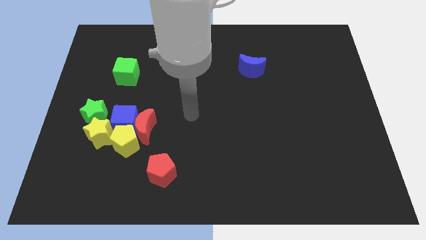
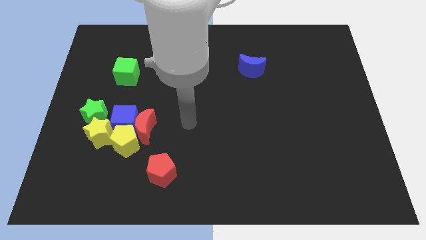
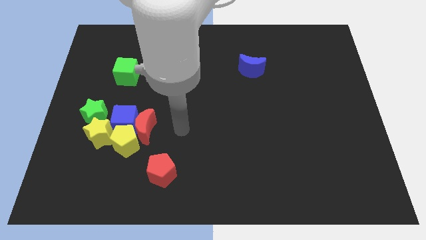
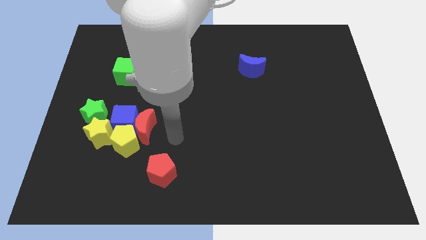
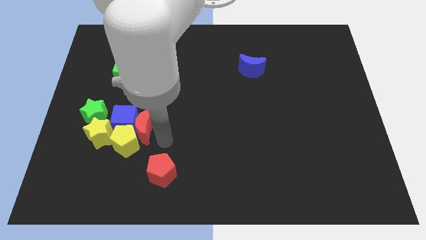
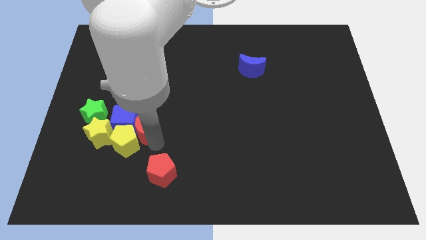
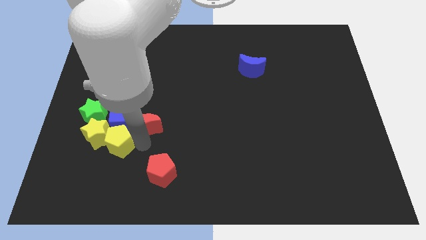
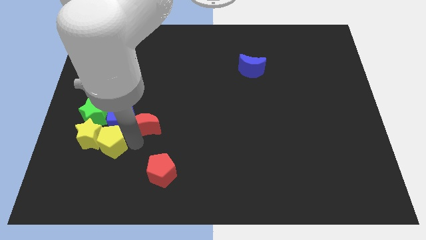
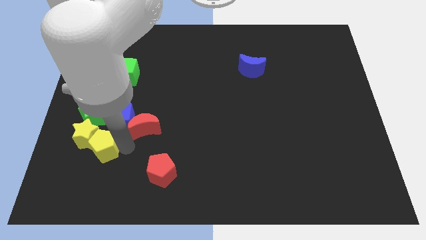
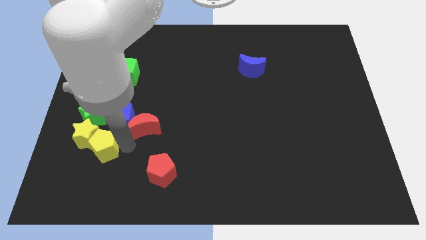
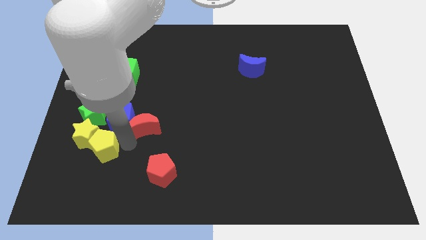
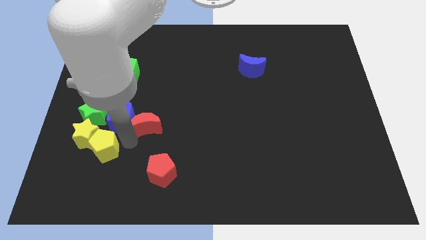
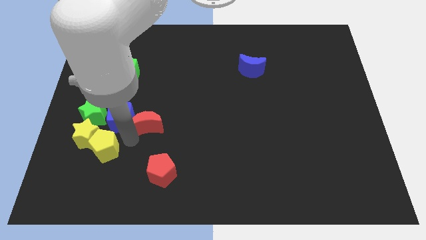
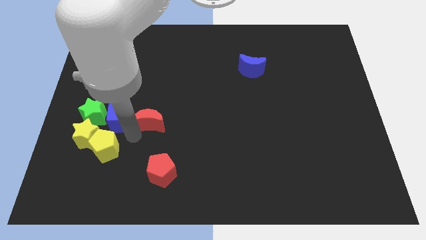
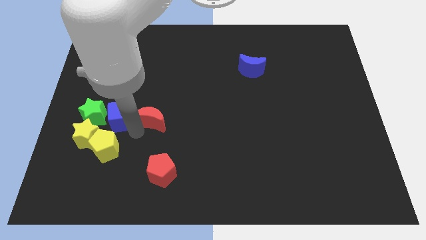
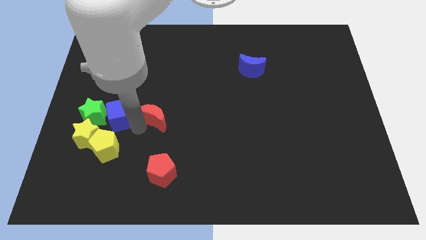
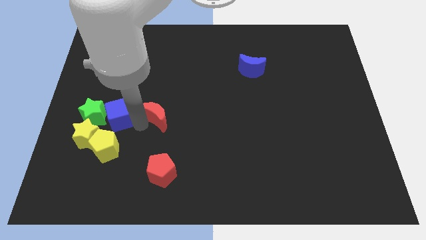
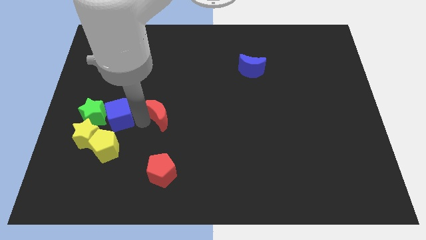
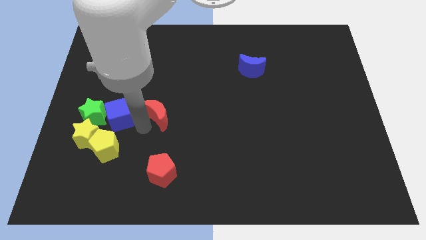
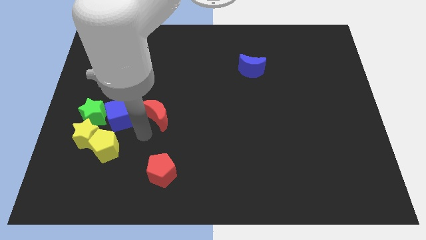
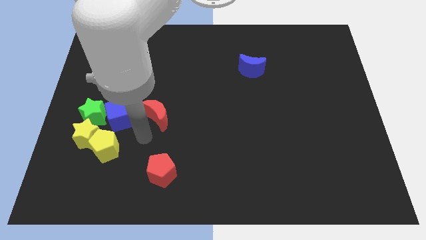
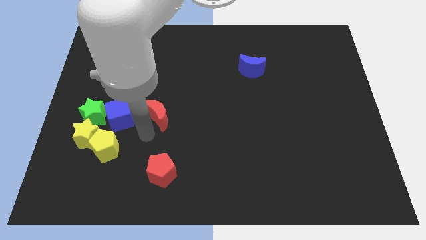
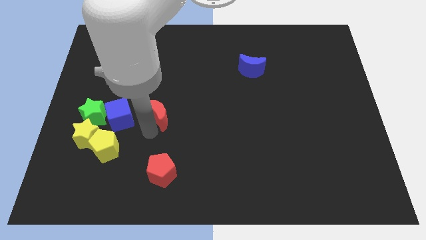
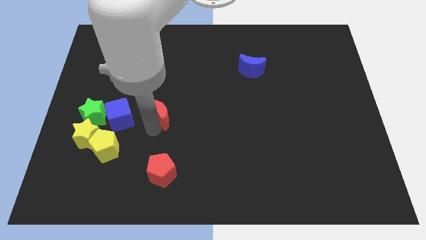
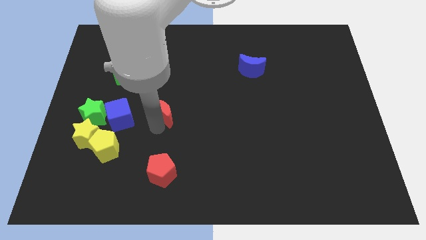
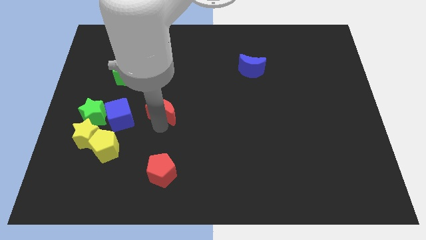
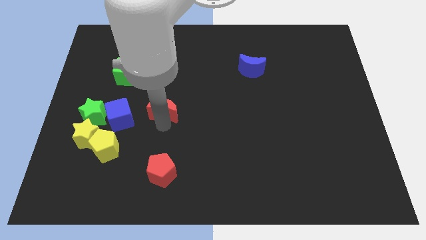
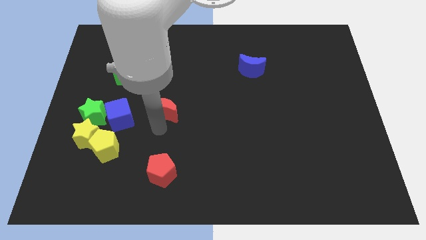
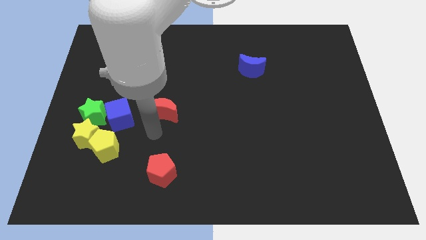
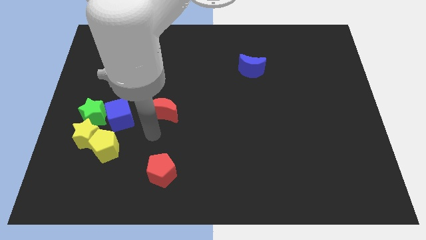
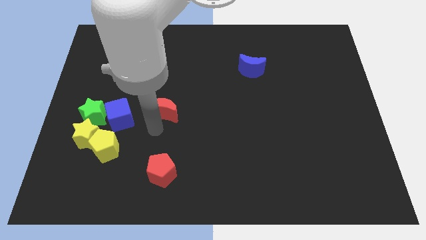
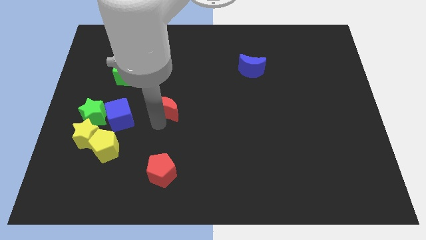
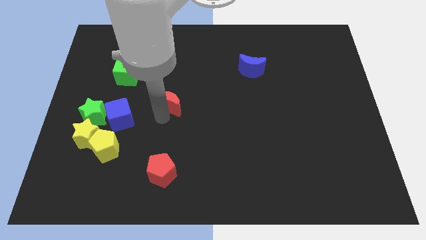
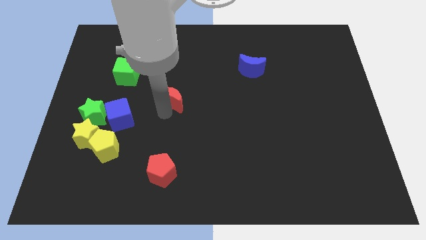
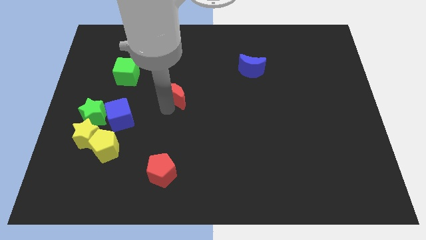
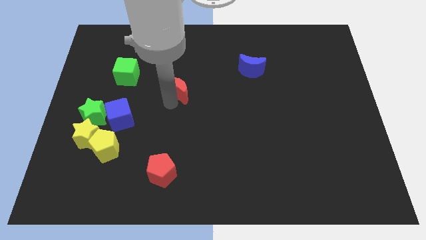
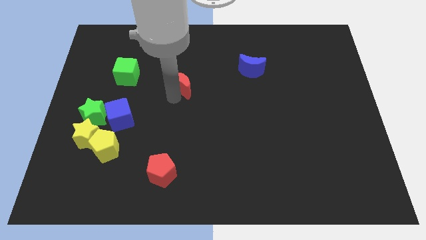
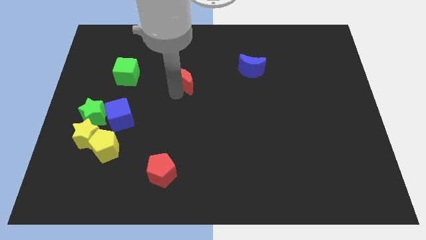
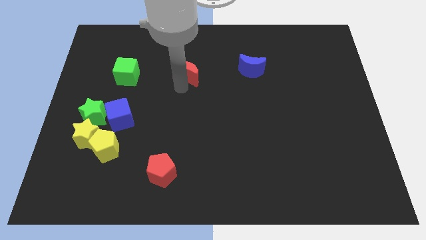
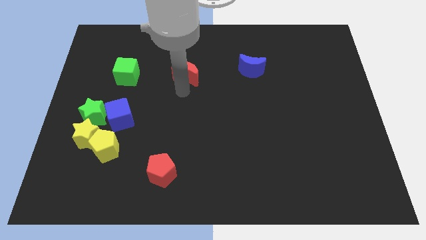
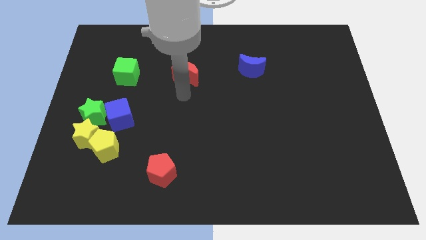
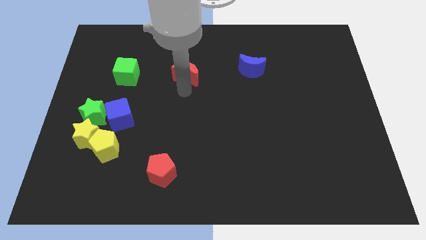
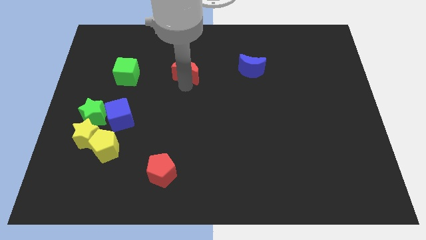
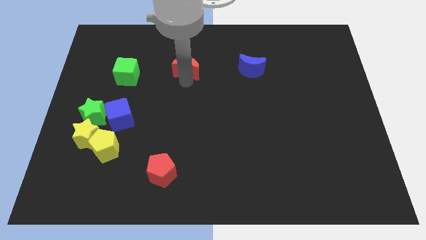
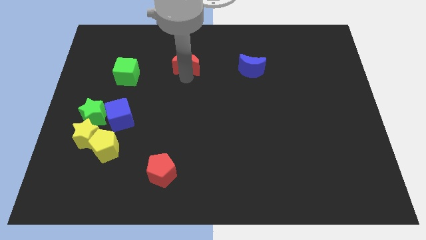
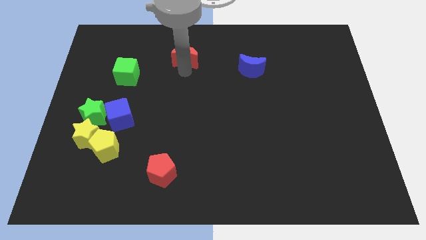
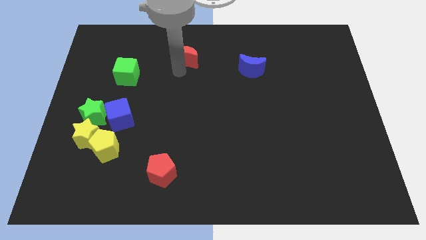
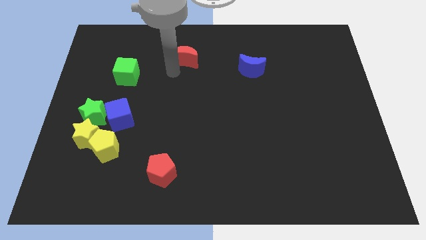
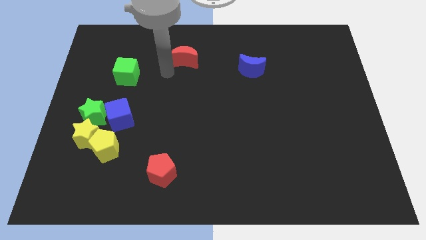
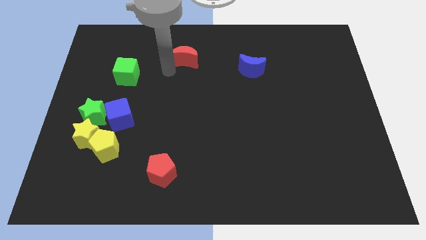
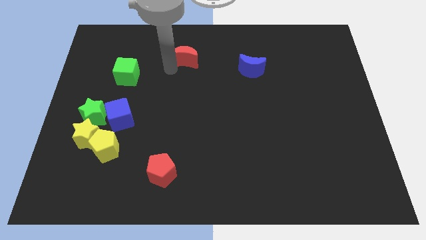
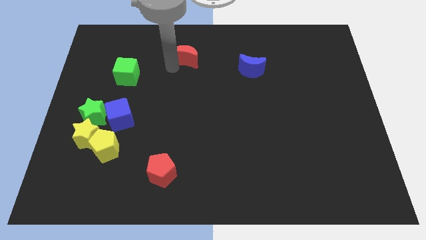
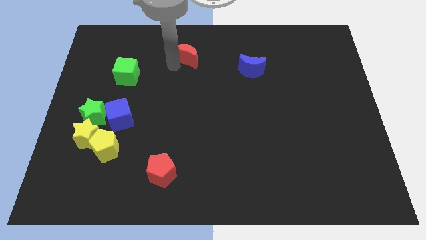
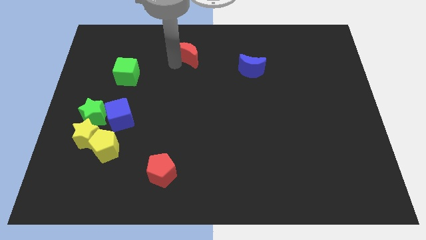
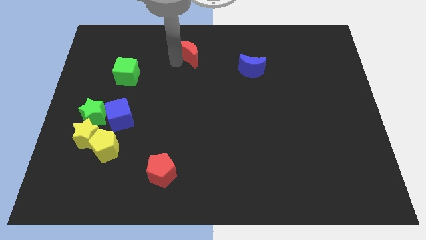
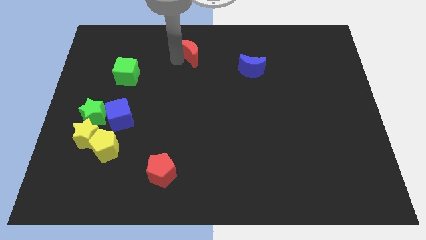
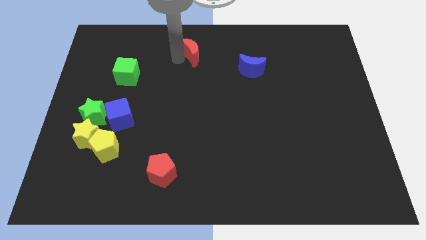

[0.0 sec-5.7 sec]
push the red moon to the top
